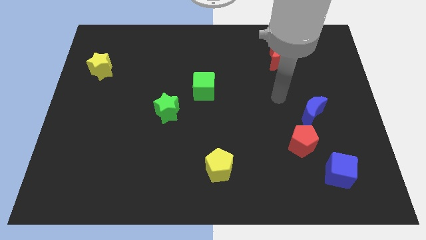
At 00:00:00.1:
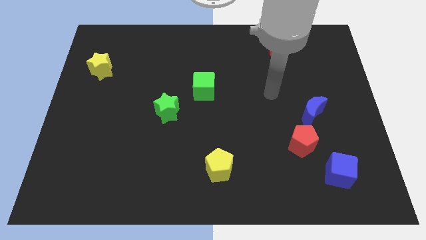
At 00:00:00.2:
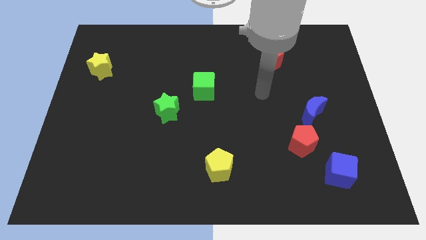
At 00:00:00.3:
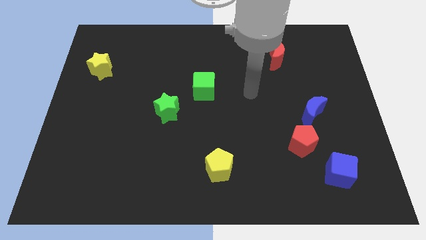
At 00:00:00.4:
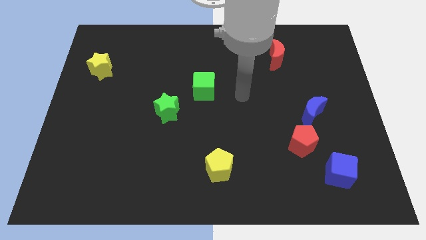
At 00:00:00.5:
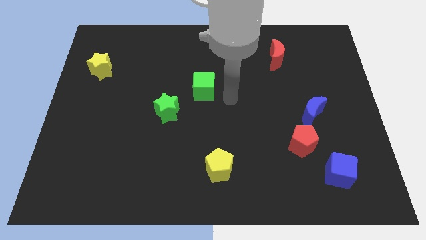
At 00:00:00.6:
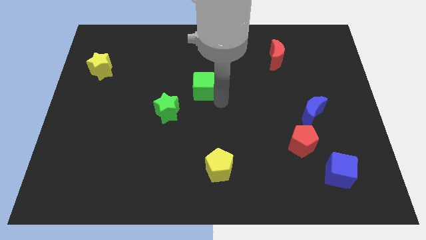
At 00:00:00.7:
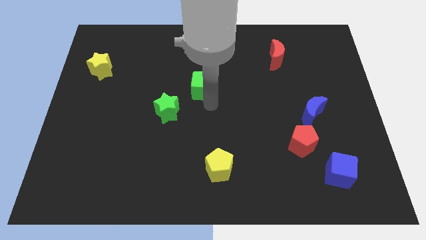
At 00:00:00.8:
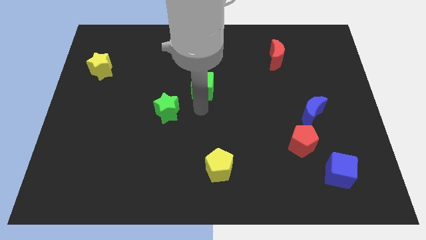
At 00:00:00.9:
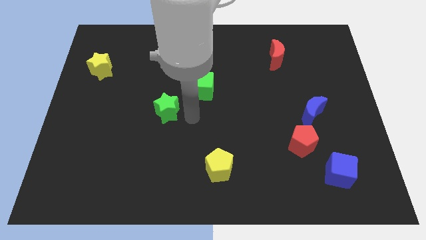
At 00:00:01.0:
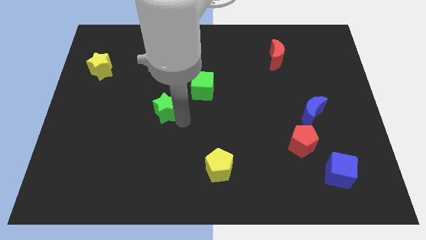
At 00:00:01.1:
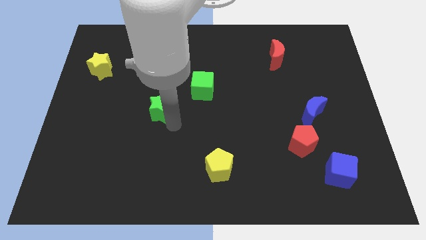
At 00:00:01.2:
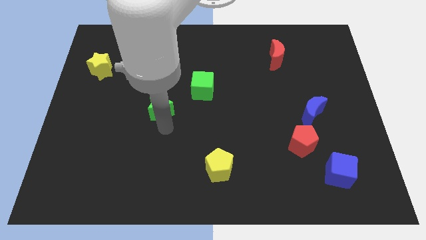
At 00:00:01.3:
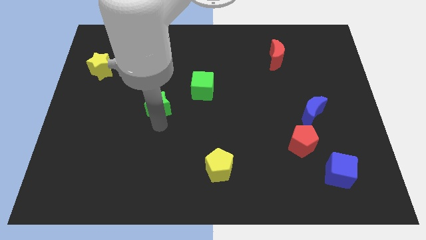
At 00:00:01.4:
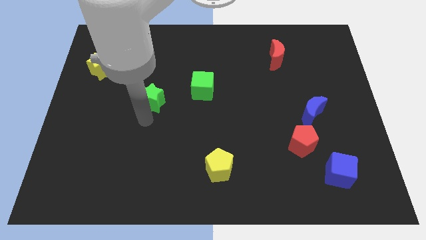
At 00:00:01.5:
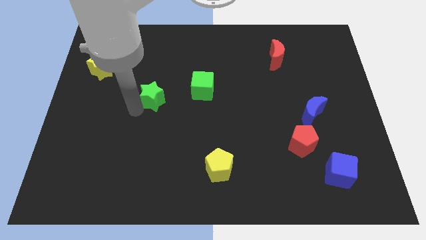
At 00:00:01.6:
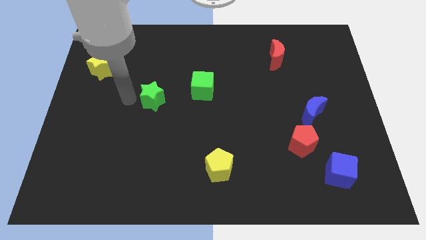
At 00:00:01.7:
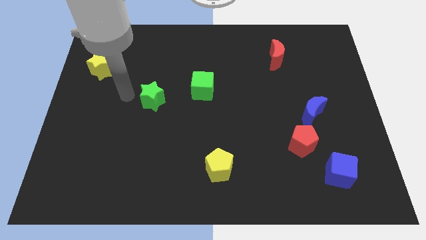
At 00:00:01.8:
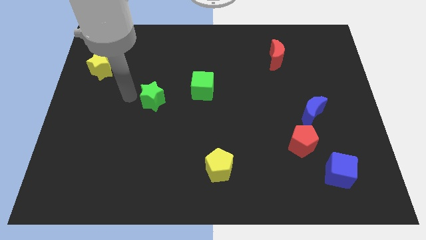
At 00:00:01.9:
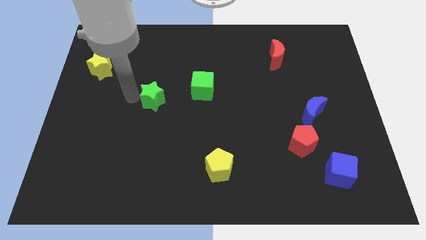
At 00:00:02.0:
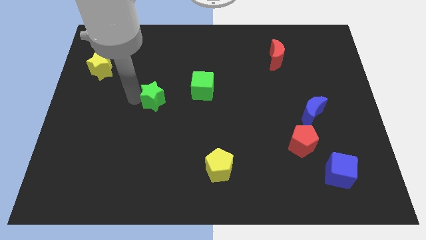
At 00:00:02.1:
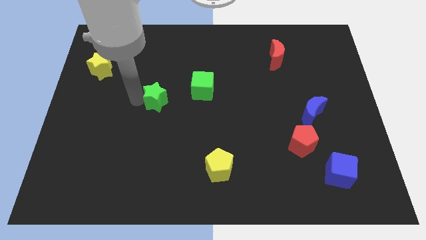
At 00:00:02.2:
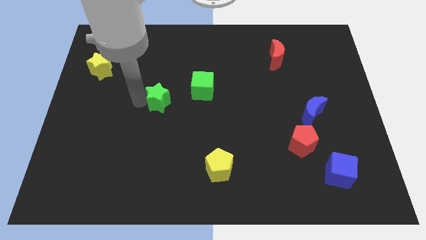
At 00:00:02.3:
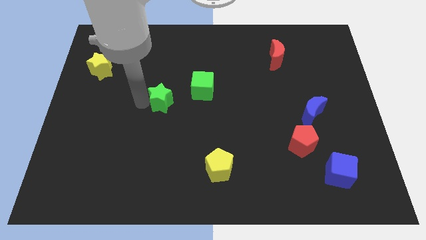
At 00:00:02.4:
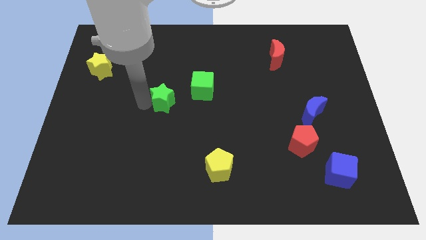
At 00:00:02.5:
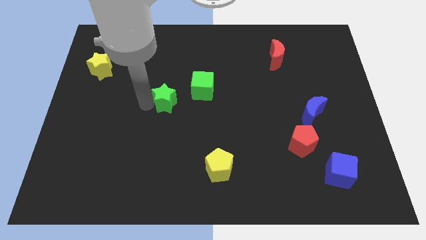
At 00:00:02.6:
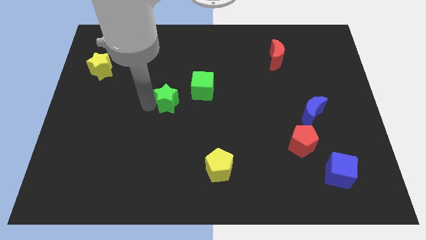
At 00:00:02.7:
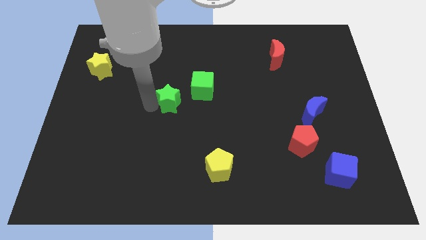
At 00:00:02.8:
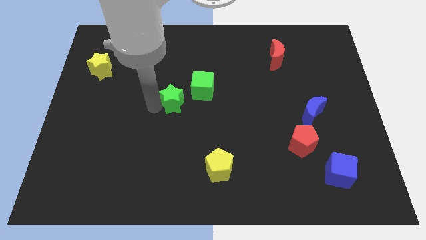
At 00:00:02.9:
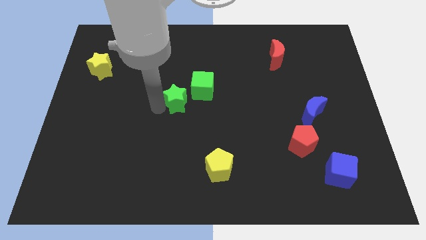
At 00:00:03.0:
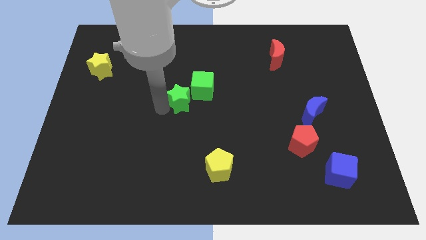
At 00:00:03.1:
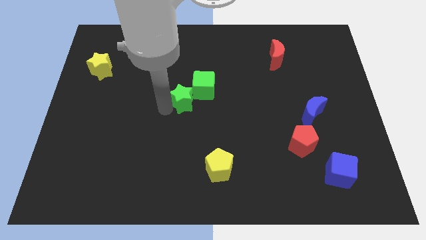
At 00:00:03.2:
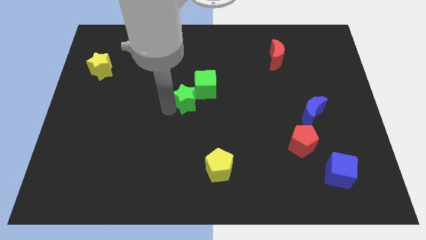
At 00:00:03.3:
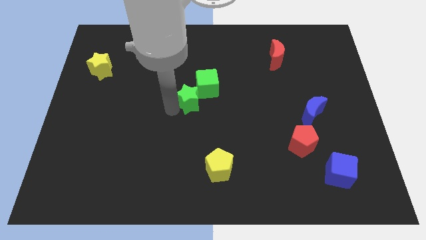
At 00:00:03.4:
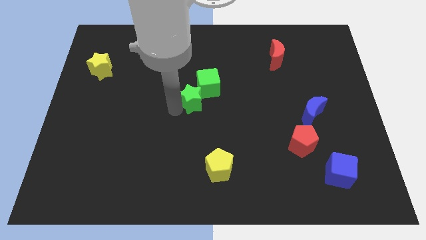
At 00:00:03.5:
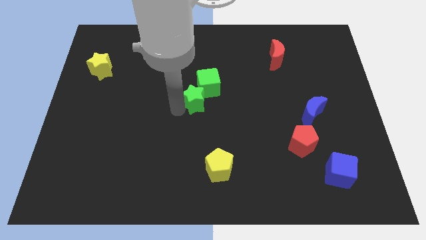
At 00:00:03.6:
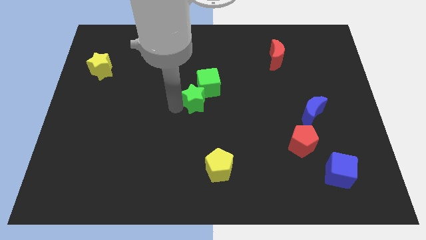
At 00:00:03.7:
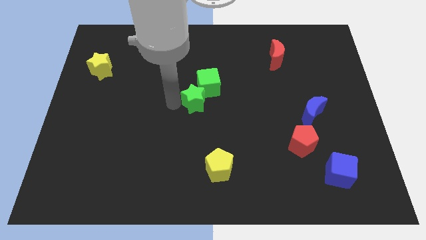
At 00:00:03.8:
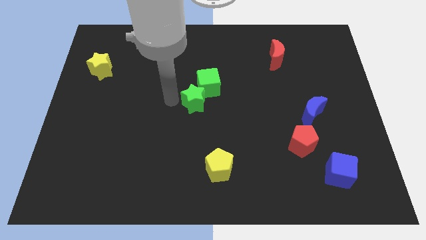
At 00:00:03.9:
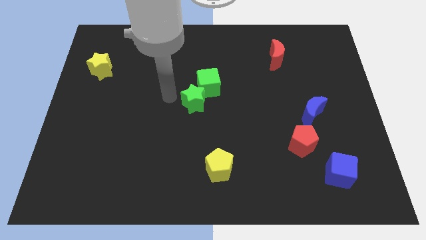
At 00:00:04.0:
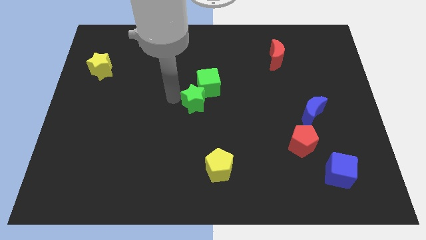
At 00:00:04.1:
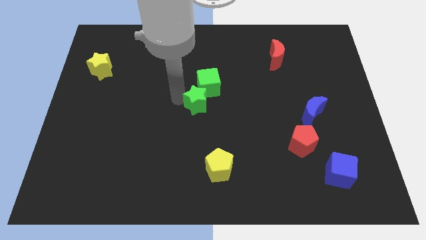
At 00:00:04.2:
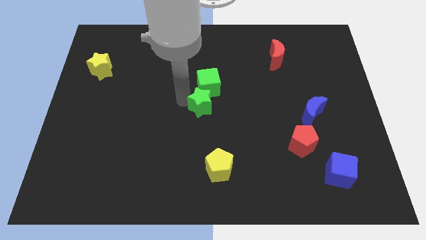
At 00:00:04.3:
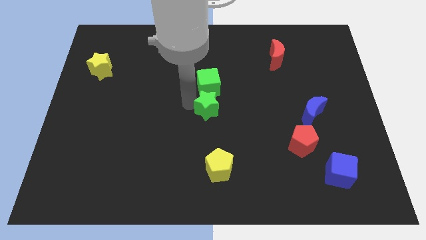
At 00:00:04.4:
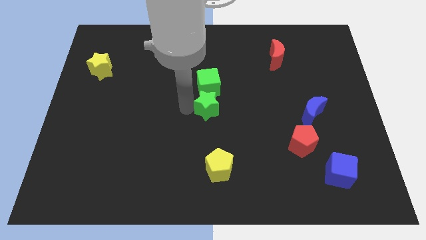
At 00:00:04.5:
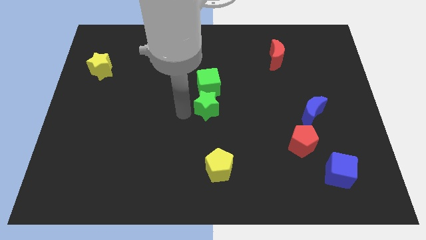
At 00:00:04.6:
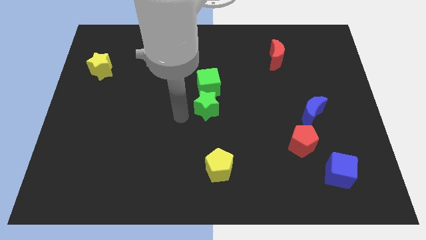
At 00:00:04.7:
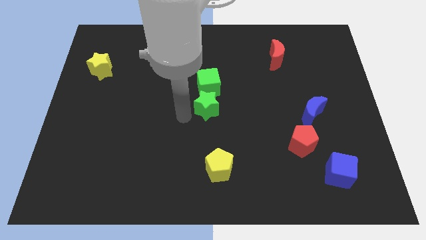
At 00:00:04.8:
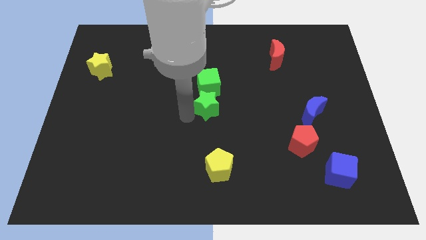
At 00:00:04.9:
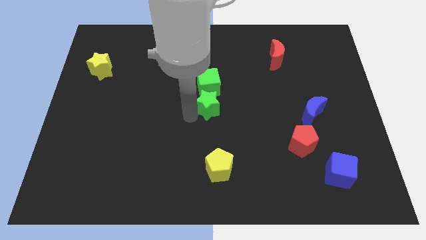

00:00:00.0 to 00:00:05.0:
move the green star to the bottom right side of the green cube

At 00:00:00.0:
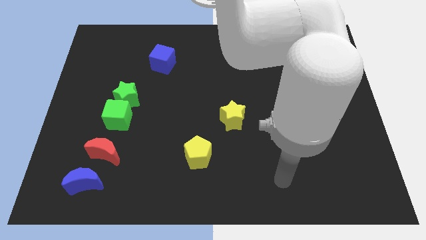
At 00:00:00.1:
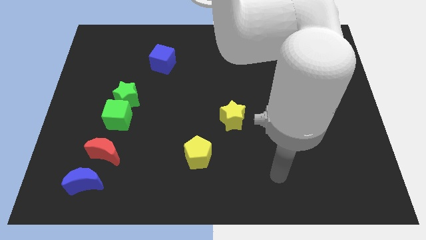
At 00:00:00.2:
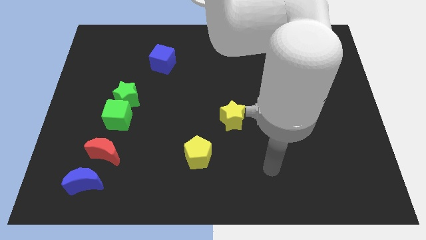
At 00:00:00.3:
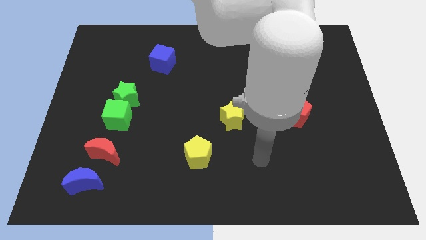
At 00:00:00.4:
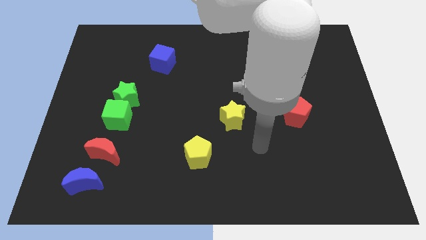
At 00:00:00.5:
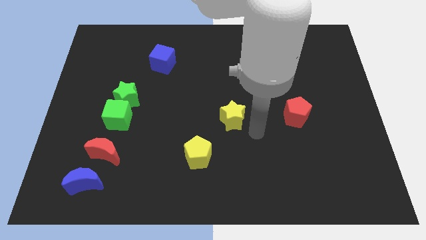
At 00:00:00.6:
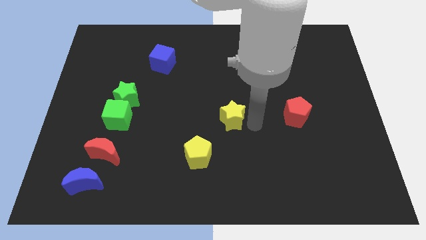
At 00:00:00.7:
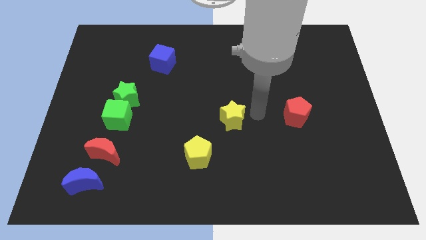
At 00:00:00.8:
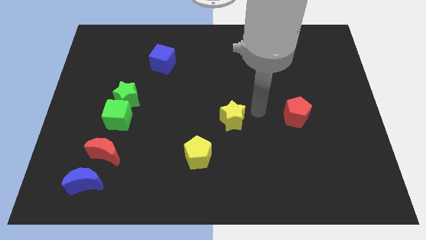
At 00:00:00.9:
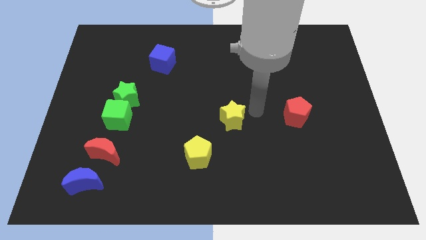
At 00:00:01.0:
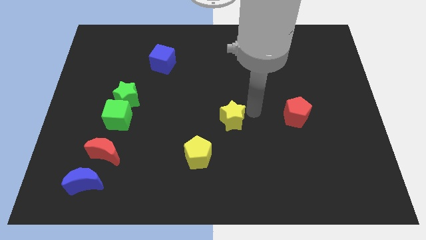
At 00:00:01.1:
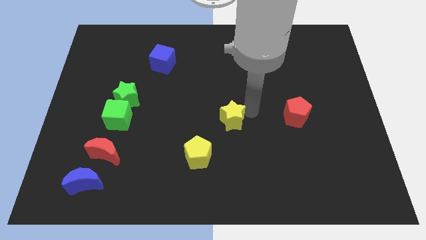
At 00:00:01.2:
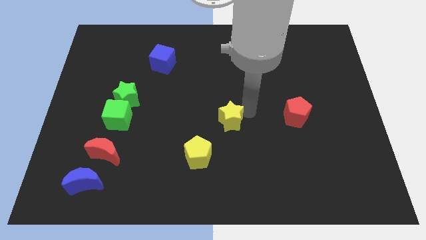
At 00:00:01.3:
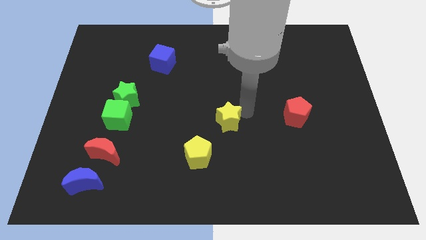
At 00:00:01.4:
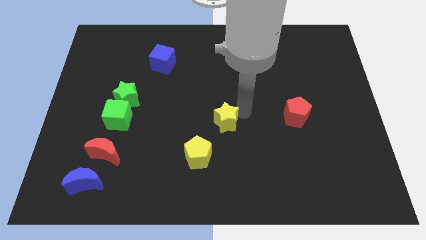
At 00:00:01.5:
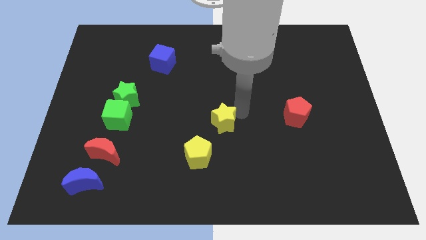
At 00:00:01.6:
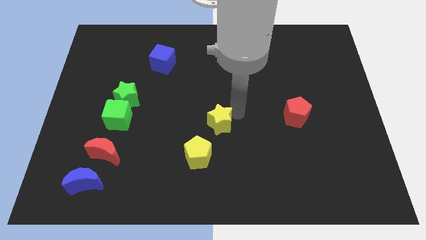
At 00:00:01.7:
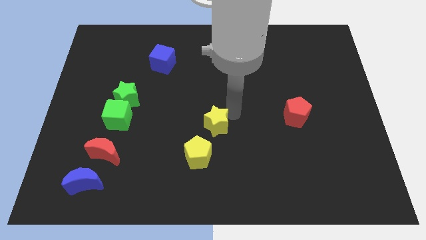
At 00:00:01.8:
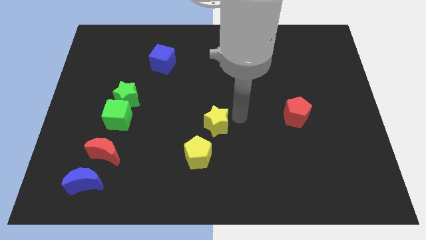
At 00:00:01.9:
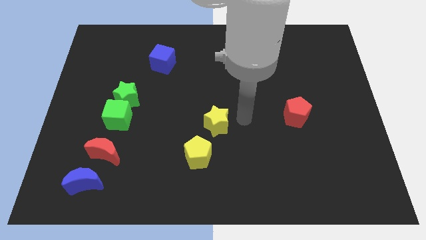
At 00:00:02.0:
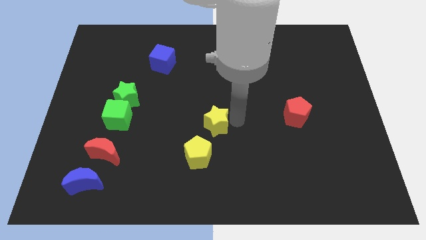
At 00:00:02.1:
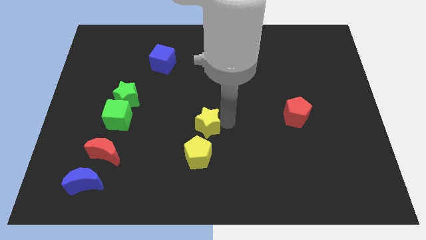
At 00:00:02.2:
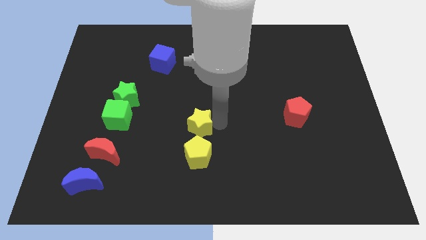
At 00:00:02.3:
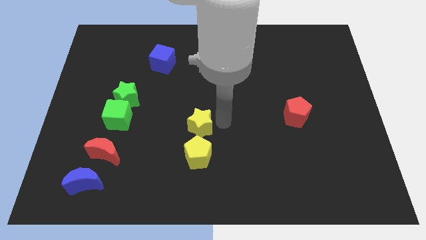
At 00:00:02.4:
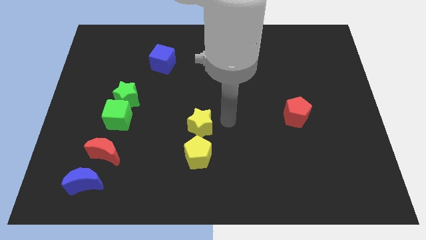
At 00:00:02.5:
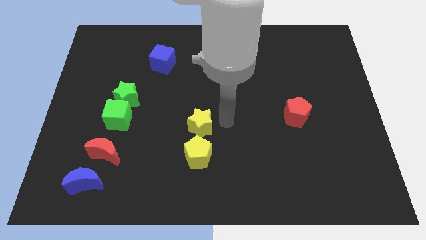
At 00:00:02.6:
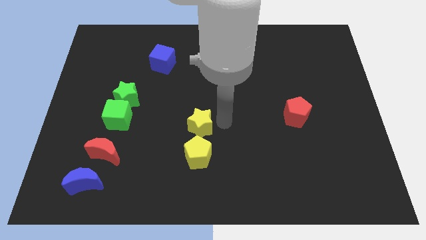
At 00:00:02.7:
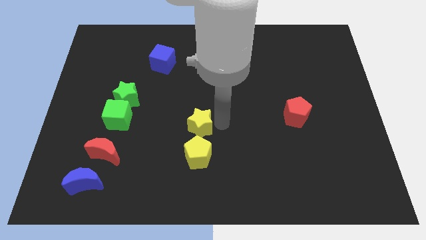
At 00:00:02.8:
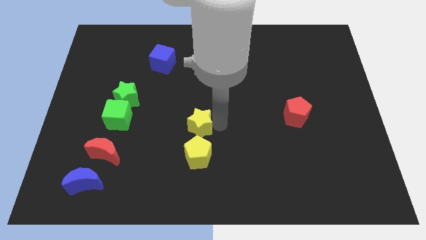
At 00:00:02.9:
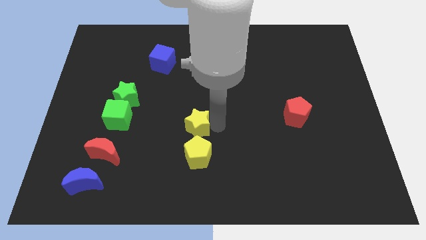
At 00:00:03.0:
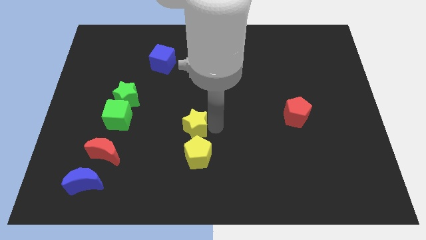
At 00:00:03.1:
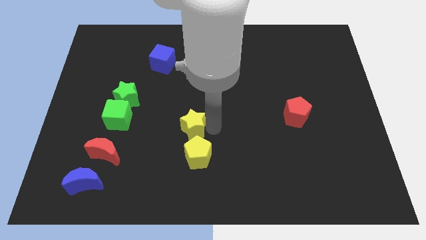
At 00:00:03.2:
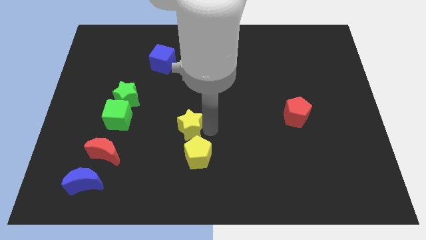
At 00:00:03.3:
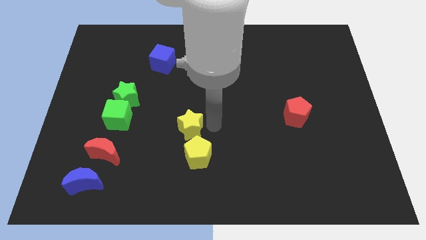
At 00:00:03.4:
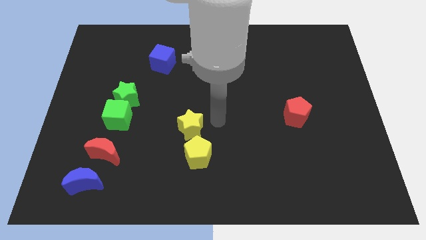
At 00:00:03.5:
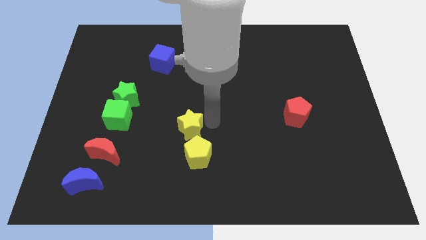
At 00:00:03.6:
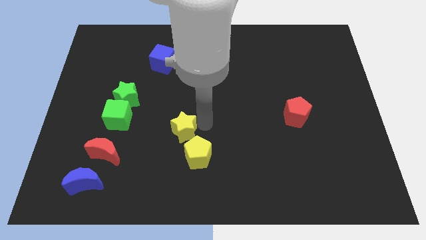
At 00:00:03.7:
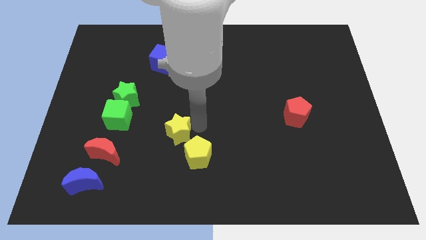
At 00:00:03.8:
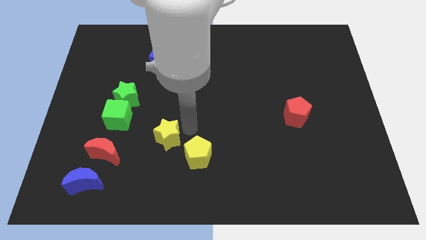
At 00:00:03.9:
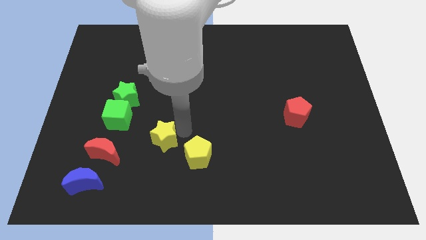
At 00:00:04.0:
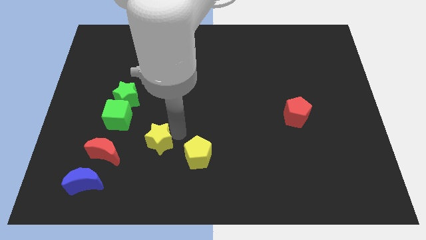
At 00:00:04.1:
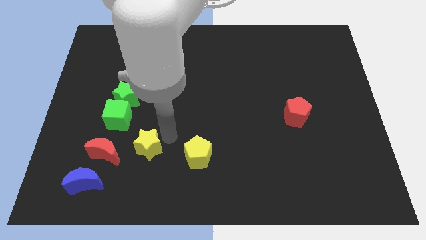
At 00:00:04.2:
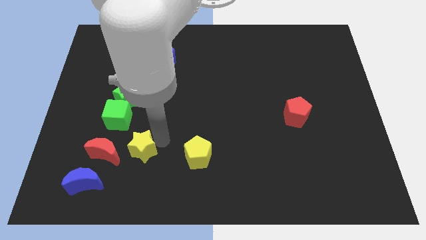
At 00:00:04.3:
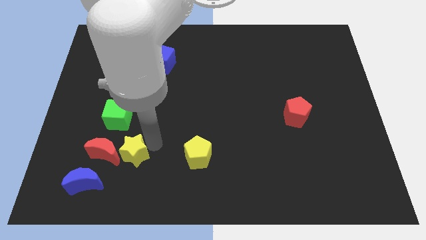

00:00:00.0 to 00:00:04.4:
put the yellow star to the top right side of the blue moon
